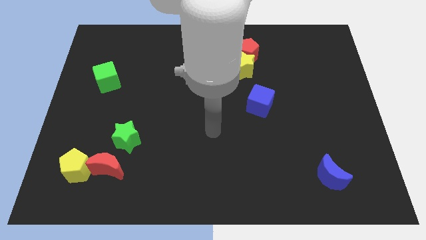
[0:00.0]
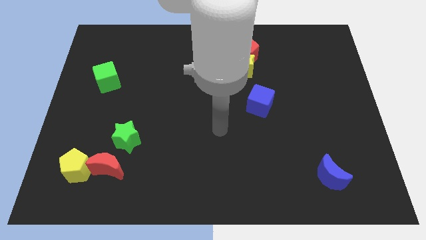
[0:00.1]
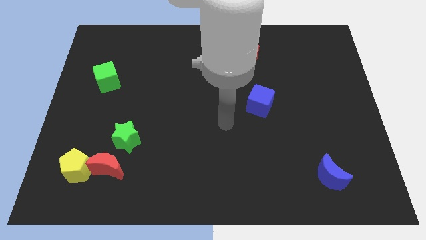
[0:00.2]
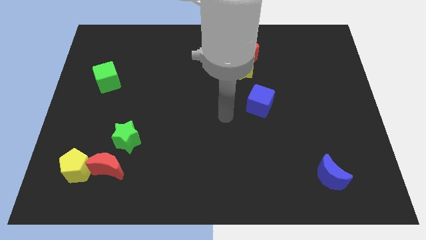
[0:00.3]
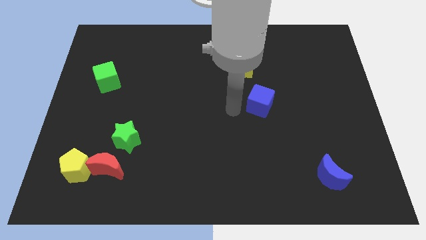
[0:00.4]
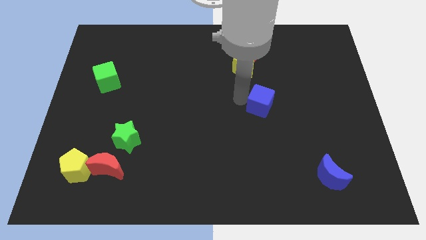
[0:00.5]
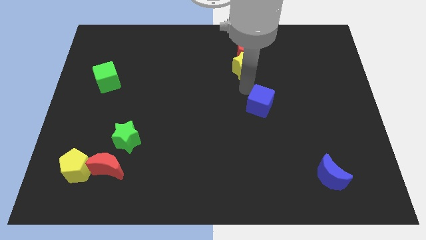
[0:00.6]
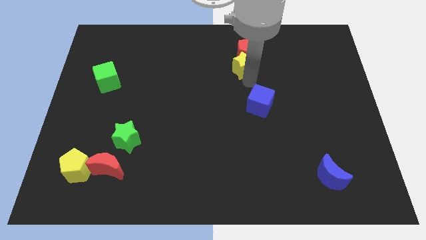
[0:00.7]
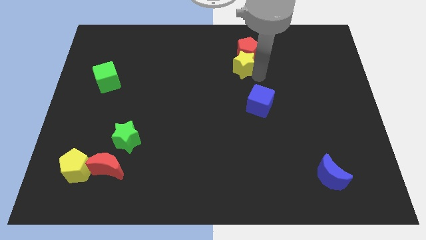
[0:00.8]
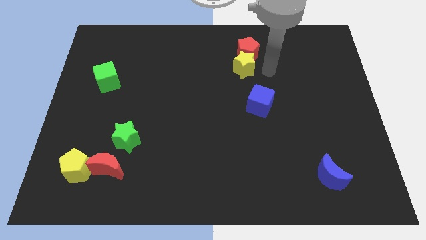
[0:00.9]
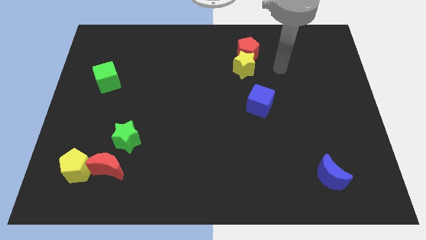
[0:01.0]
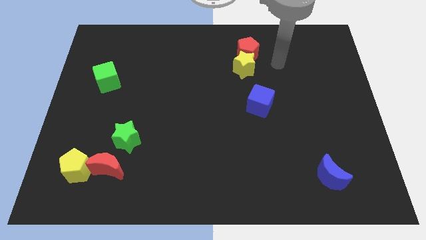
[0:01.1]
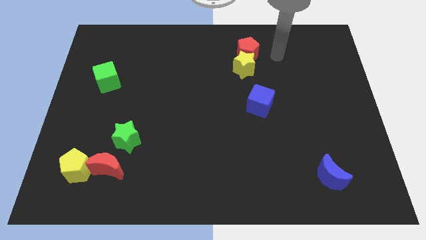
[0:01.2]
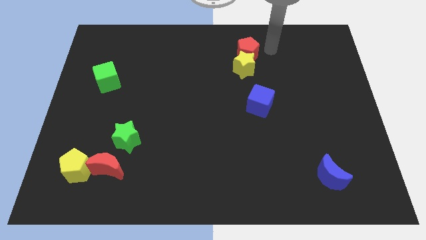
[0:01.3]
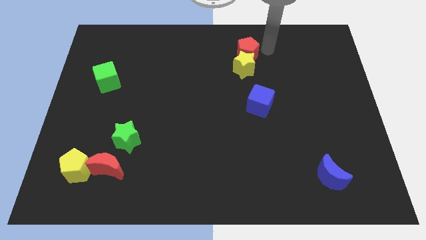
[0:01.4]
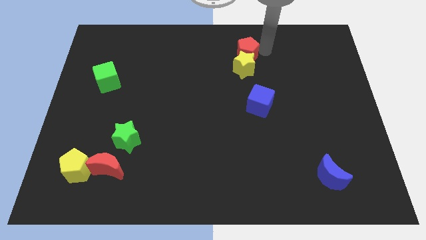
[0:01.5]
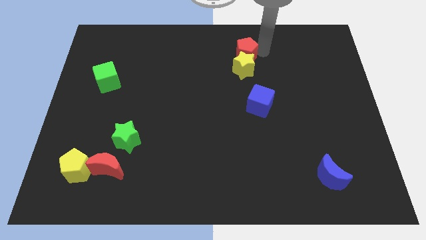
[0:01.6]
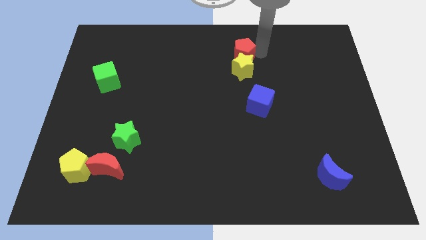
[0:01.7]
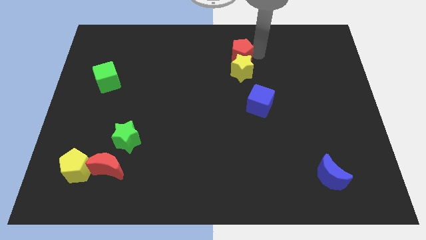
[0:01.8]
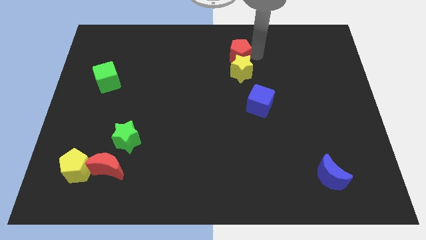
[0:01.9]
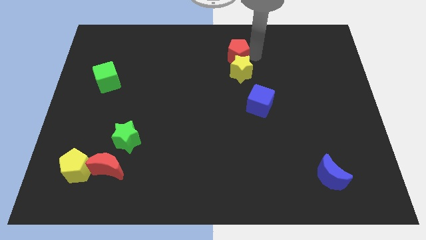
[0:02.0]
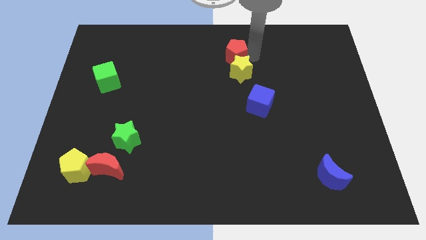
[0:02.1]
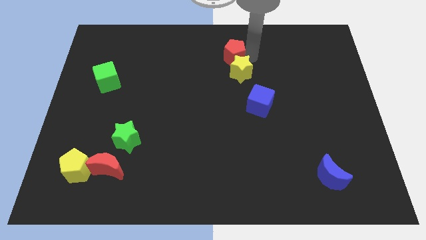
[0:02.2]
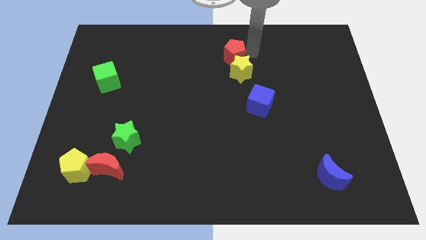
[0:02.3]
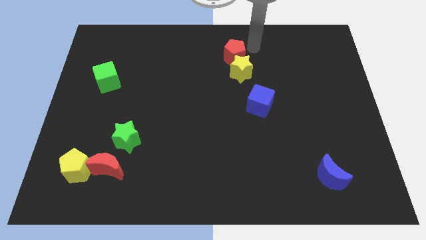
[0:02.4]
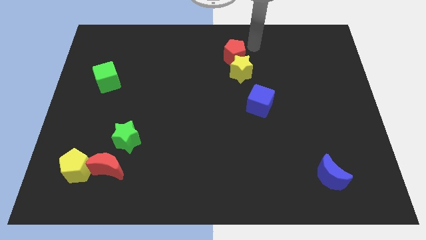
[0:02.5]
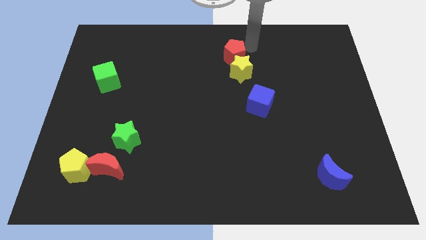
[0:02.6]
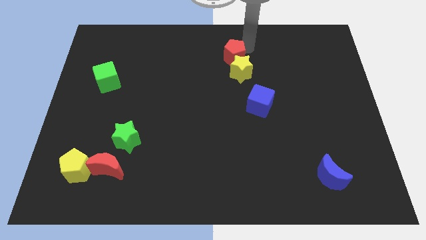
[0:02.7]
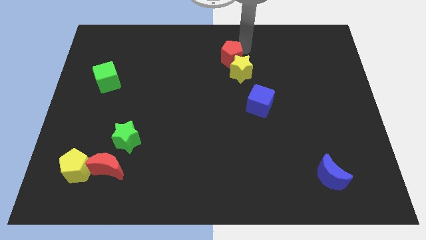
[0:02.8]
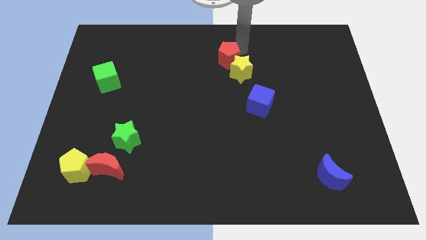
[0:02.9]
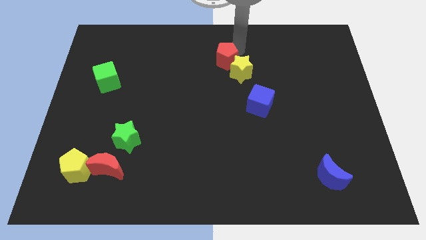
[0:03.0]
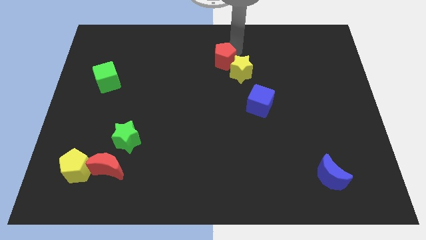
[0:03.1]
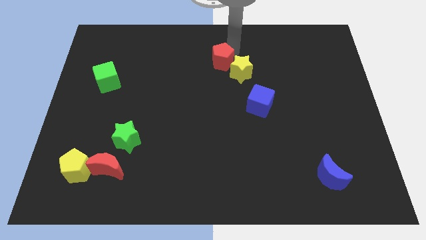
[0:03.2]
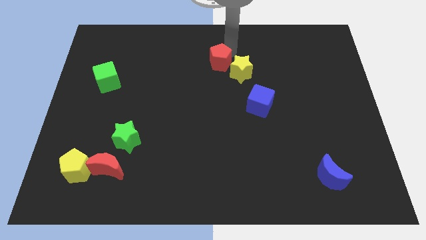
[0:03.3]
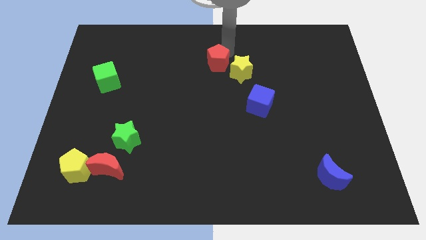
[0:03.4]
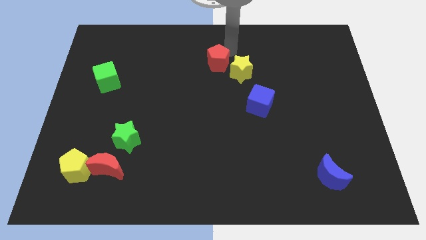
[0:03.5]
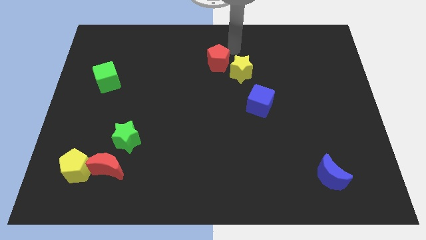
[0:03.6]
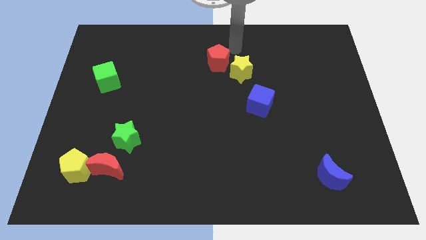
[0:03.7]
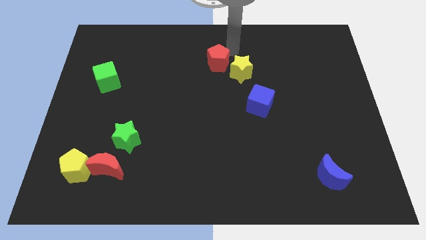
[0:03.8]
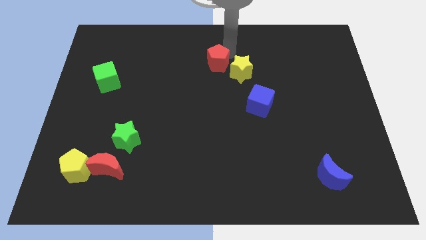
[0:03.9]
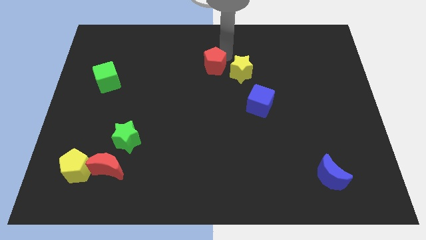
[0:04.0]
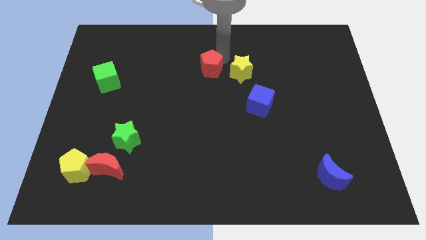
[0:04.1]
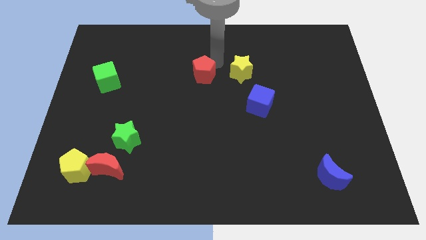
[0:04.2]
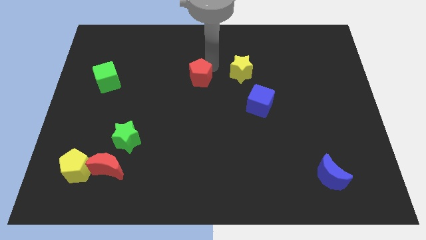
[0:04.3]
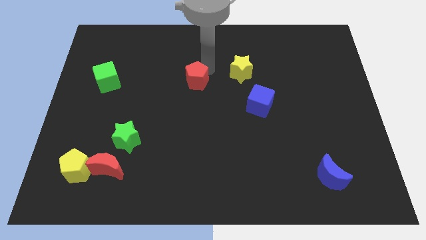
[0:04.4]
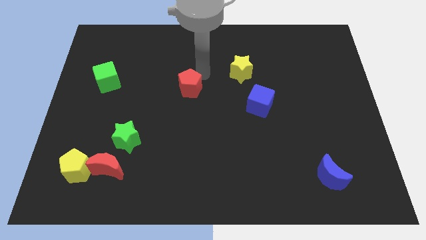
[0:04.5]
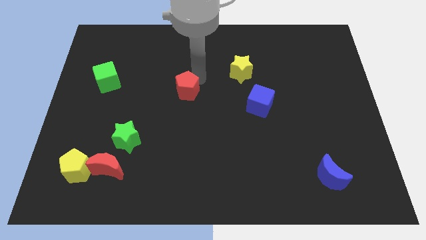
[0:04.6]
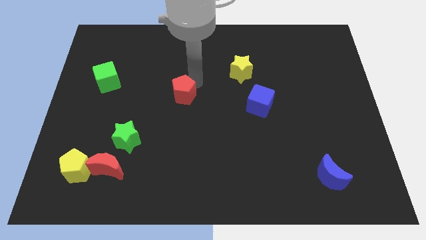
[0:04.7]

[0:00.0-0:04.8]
push the red pentagon down and to the left

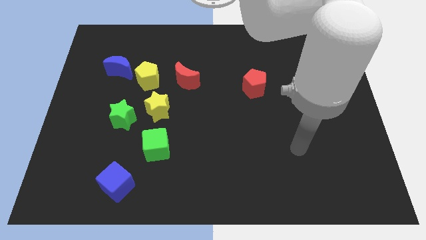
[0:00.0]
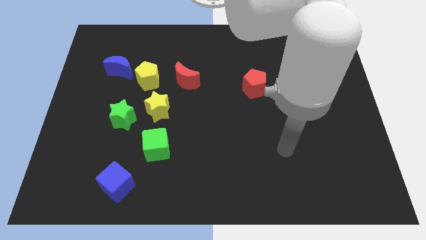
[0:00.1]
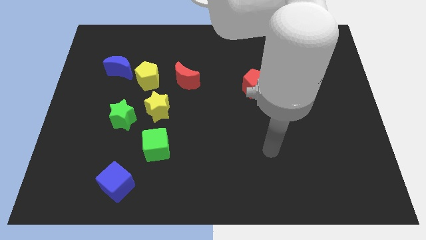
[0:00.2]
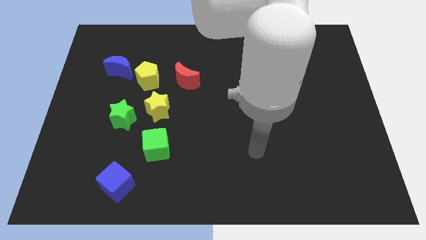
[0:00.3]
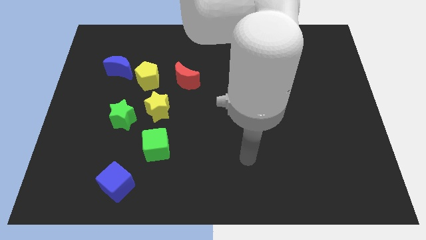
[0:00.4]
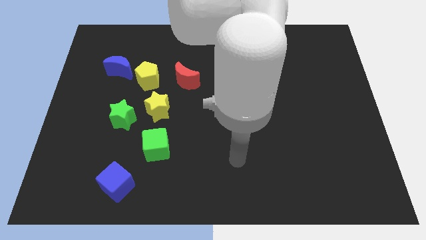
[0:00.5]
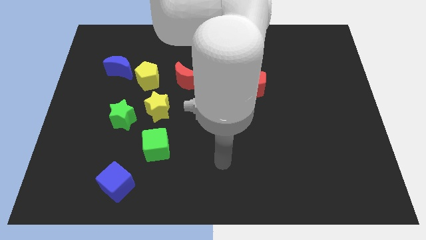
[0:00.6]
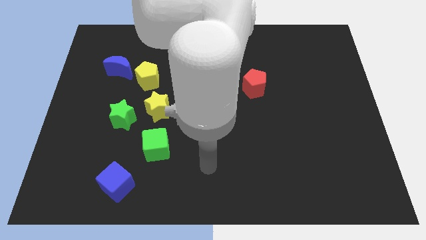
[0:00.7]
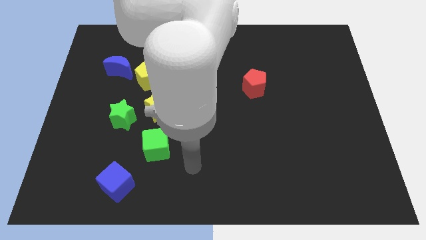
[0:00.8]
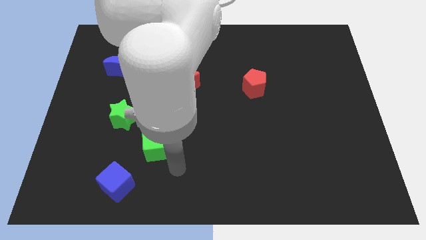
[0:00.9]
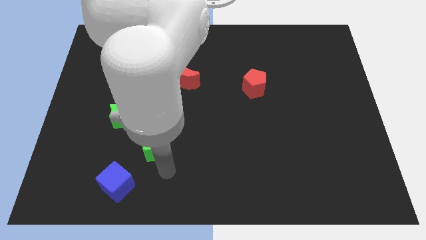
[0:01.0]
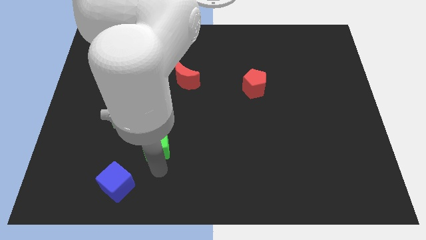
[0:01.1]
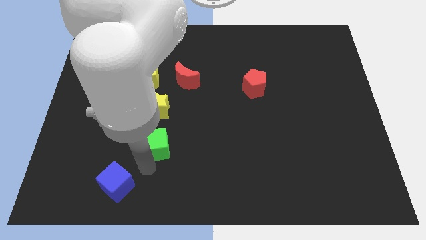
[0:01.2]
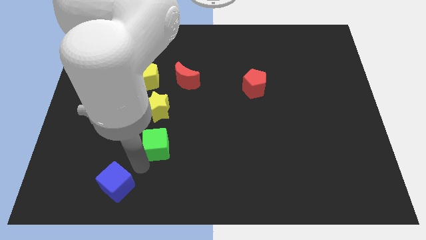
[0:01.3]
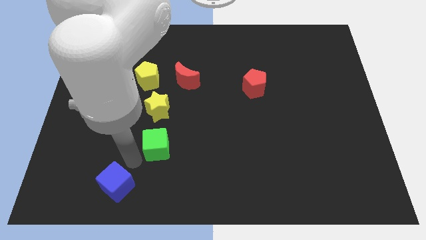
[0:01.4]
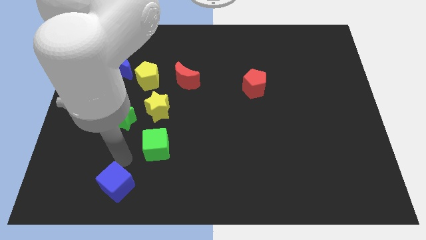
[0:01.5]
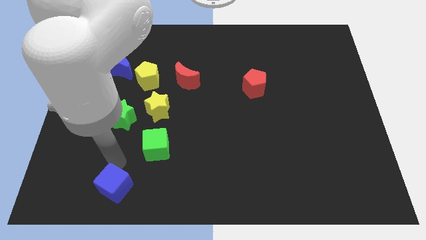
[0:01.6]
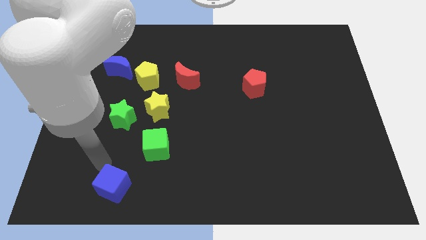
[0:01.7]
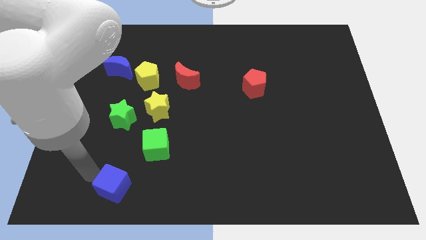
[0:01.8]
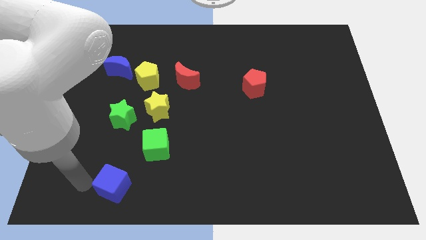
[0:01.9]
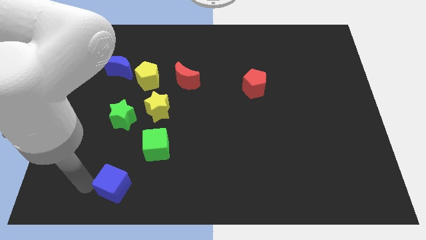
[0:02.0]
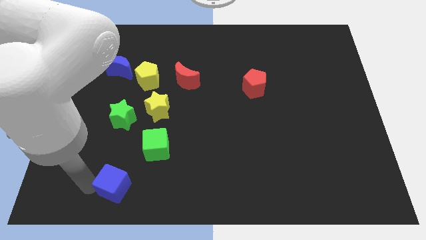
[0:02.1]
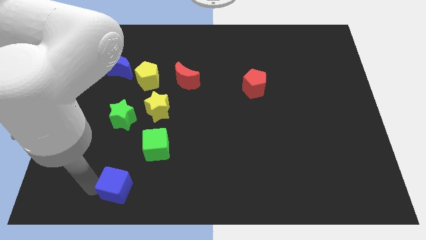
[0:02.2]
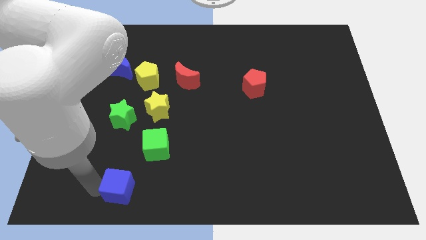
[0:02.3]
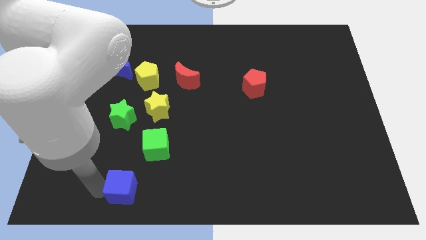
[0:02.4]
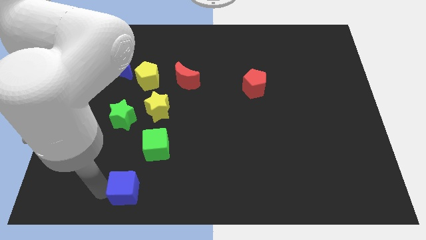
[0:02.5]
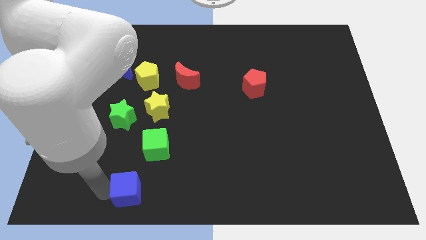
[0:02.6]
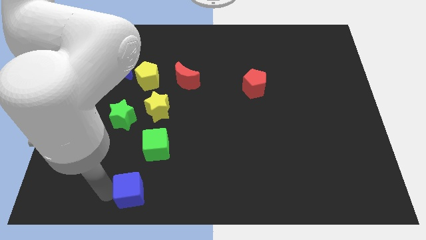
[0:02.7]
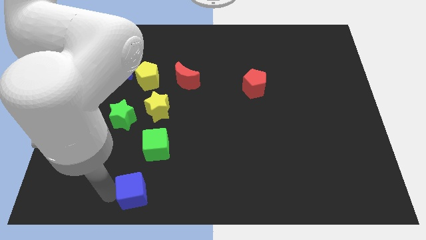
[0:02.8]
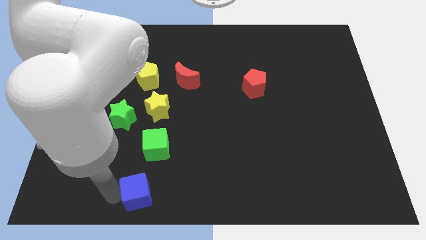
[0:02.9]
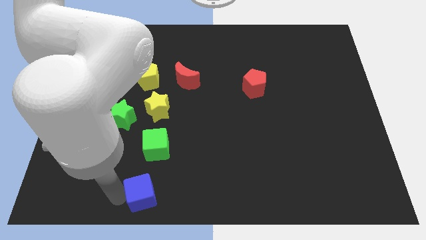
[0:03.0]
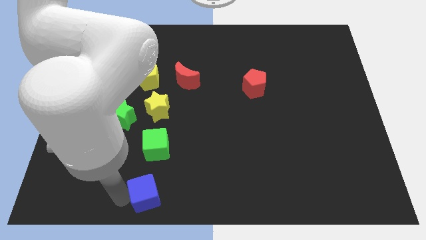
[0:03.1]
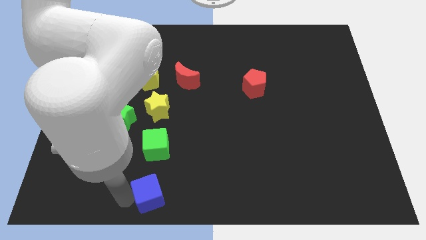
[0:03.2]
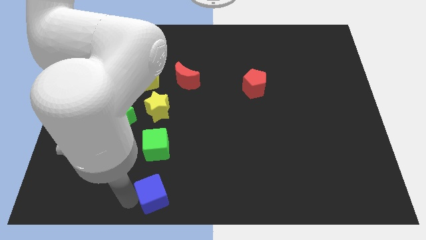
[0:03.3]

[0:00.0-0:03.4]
push the blue cube to the right a little
